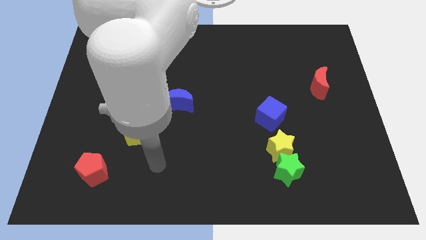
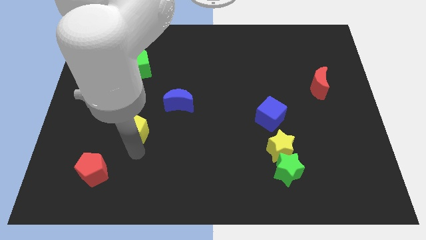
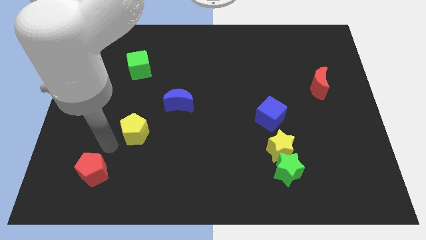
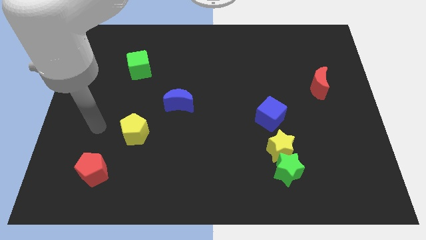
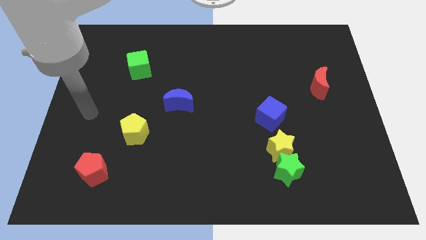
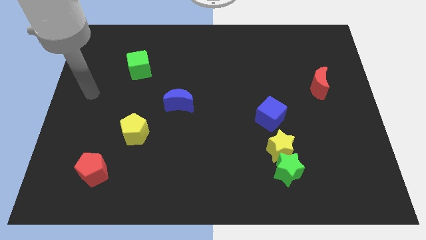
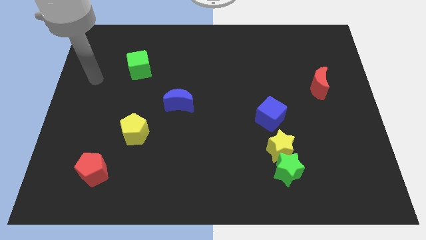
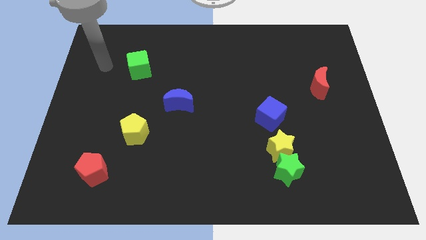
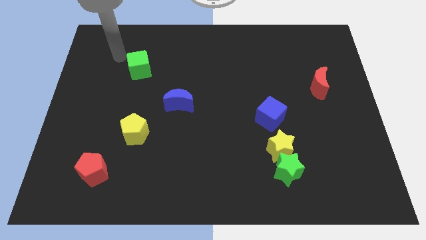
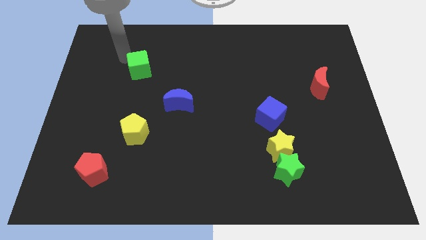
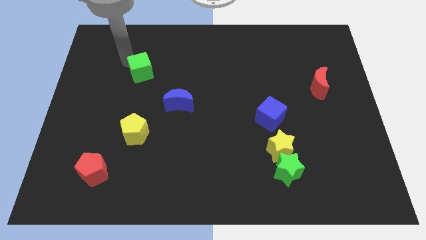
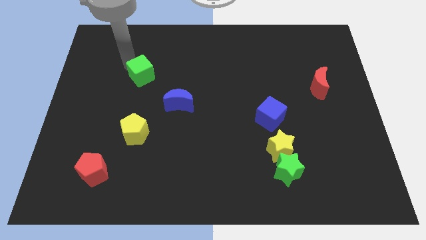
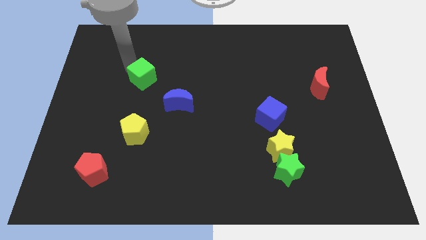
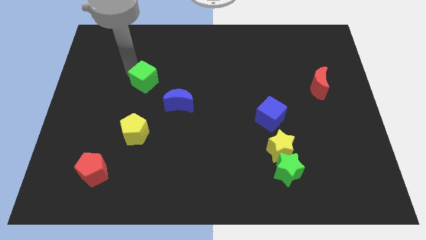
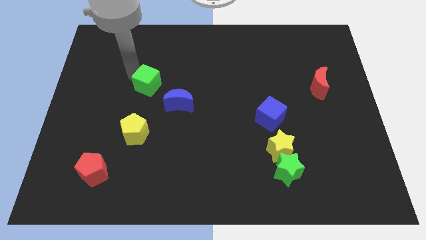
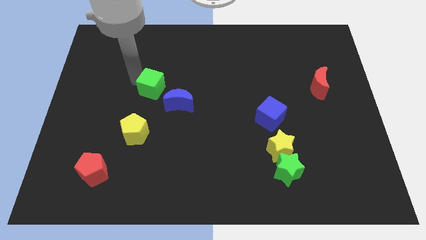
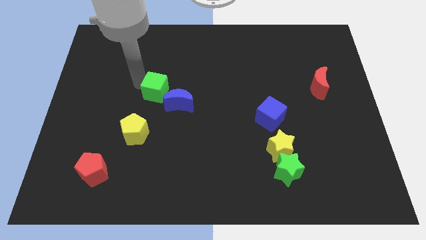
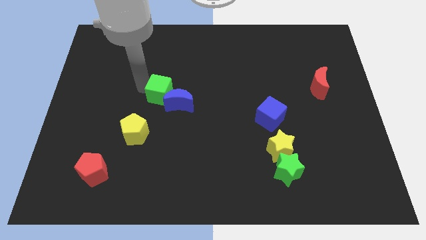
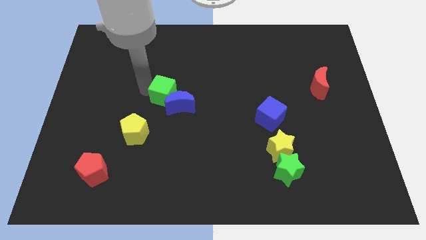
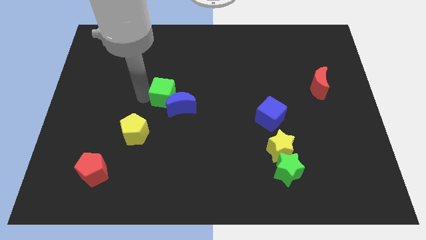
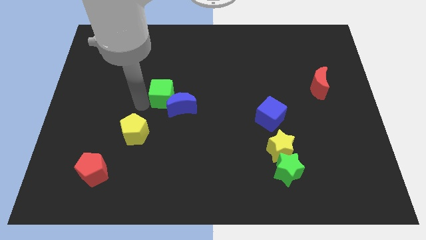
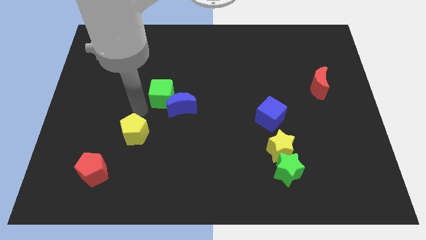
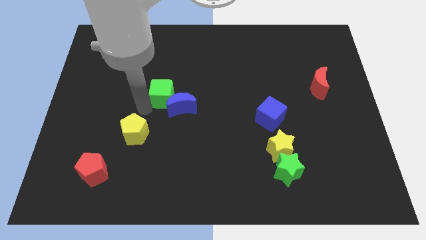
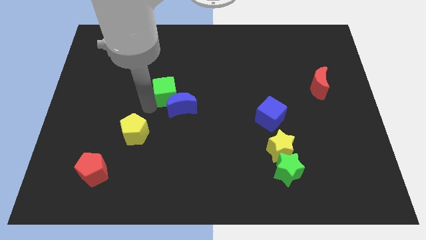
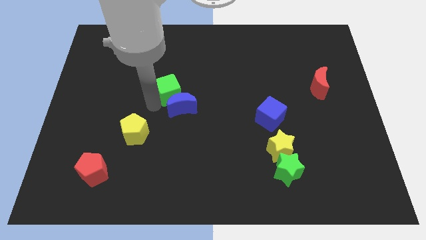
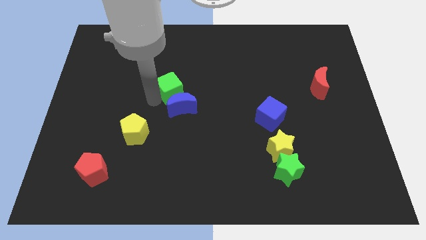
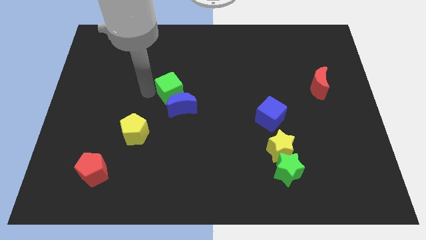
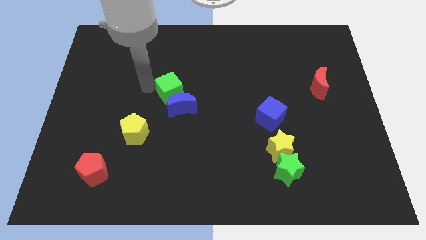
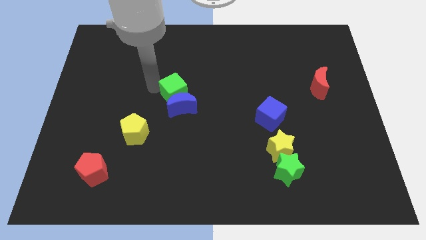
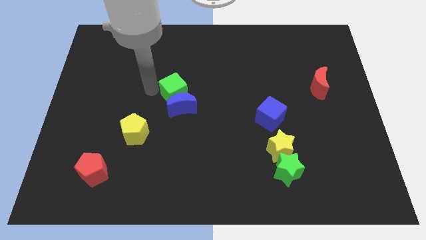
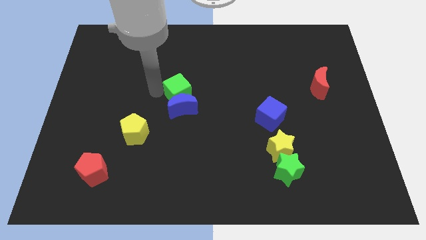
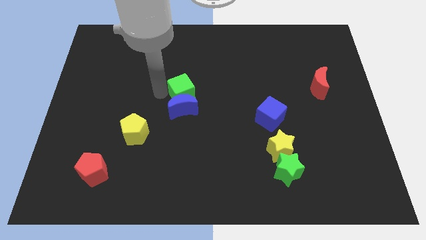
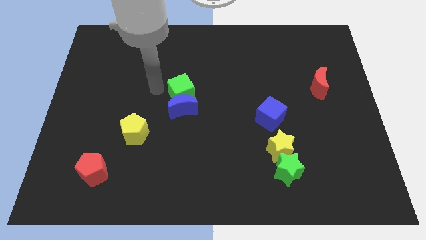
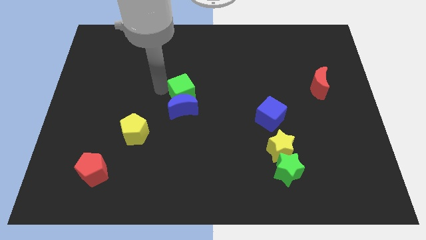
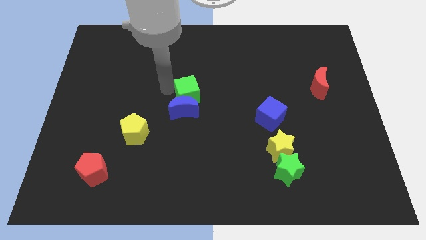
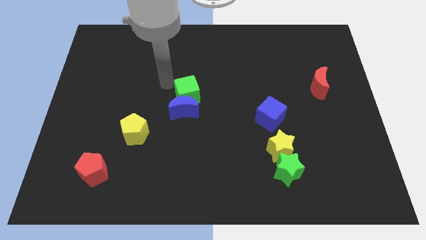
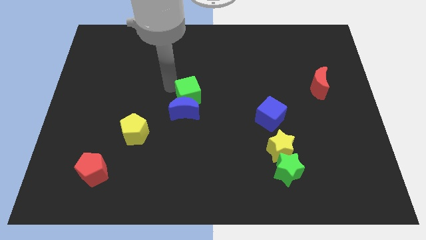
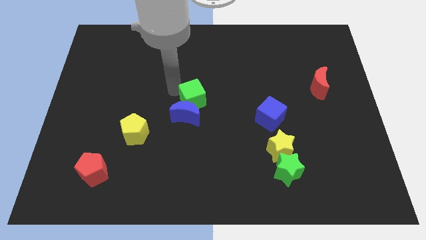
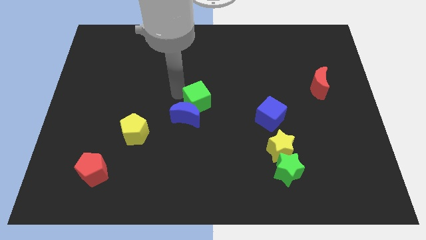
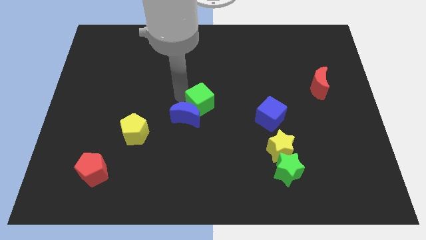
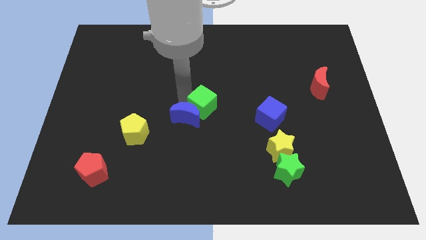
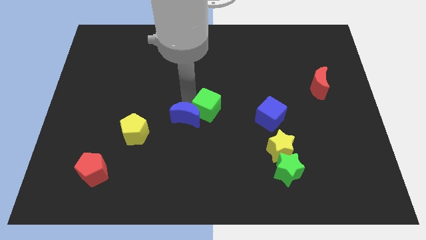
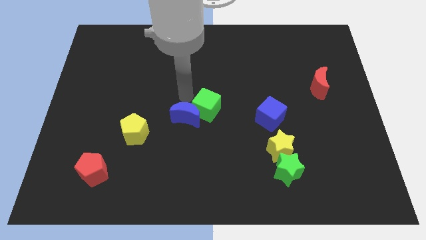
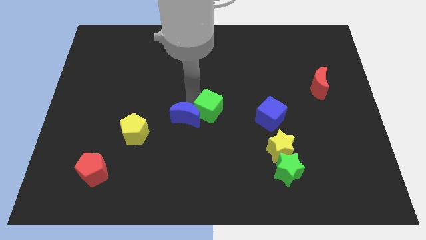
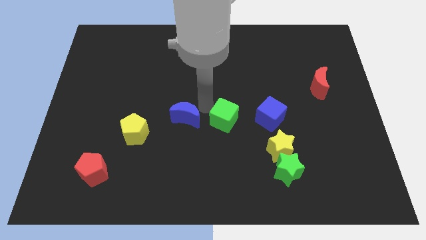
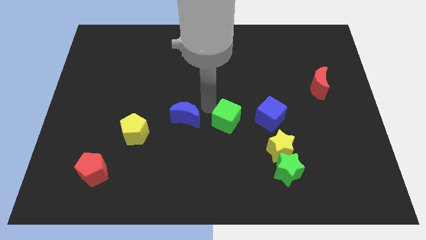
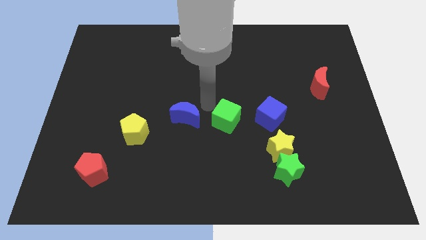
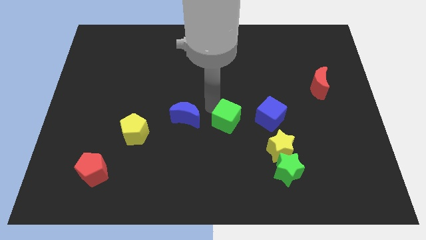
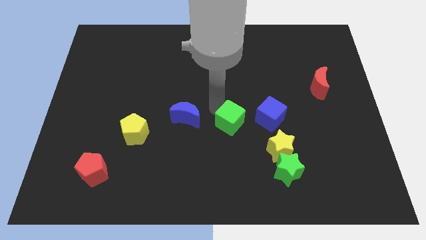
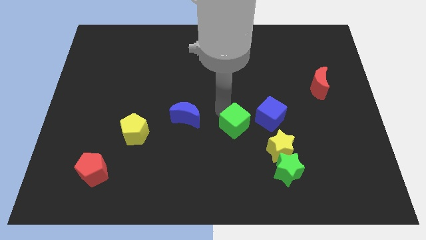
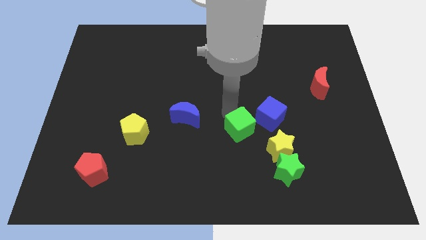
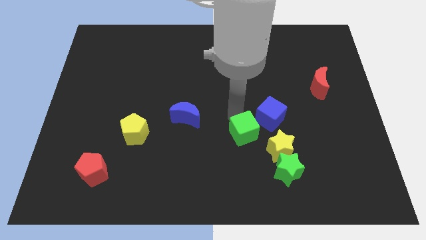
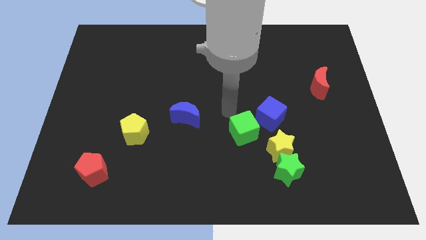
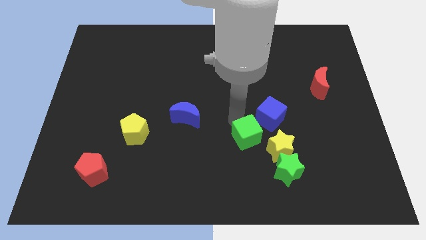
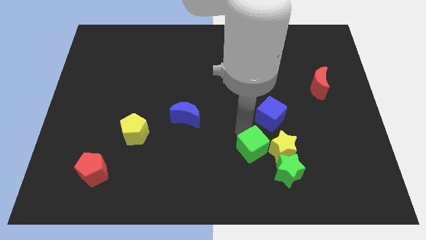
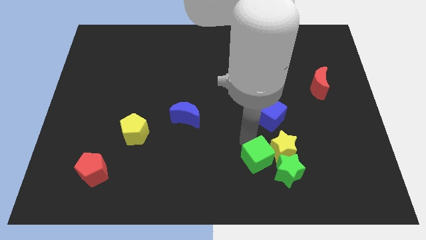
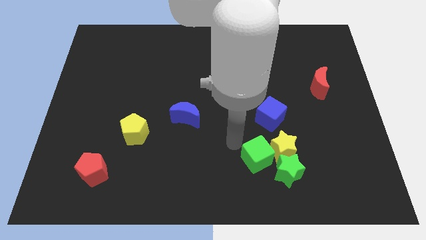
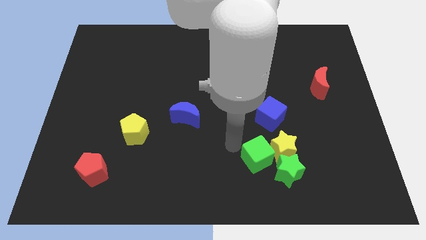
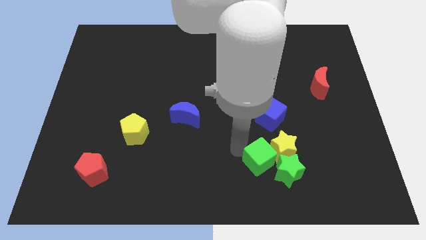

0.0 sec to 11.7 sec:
move the green cube towards the green star

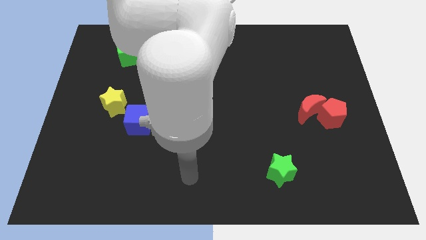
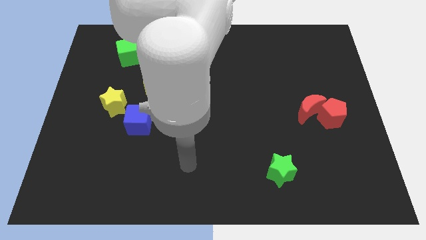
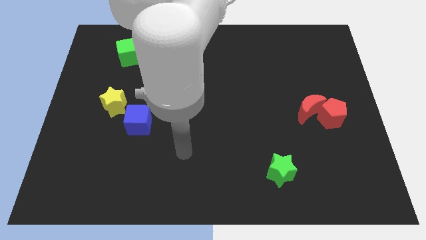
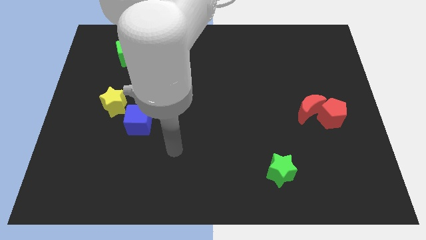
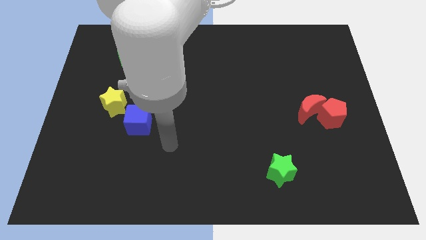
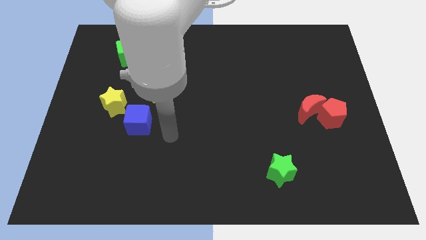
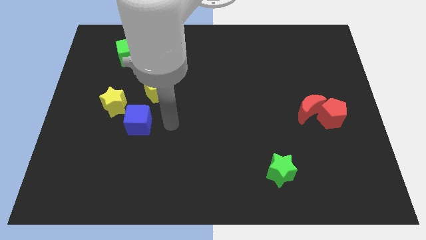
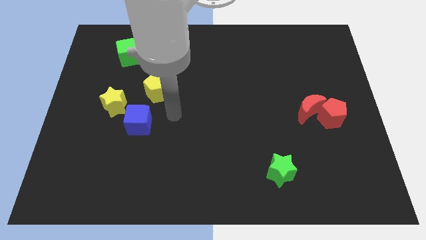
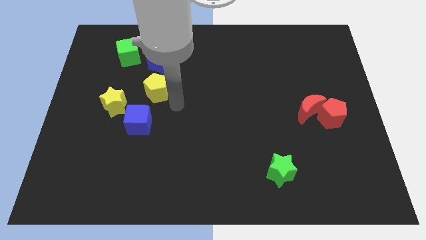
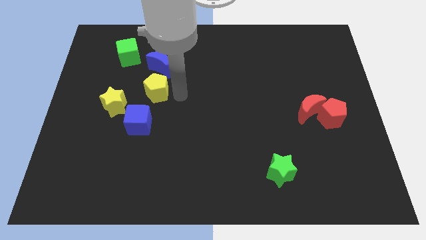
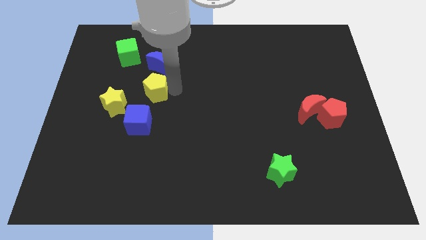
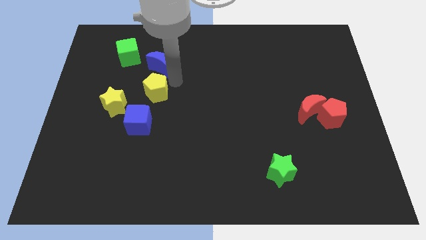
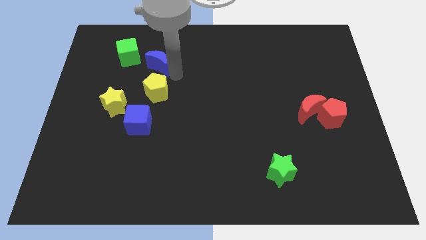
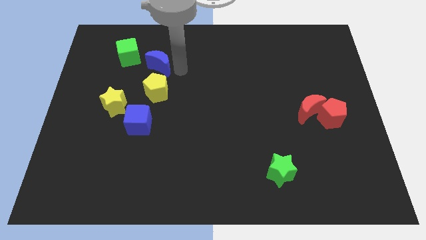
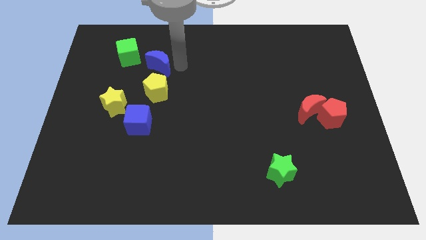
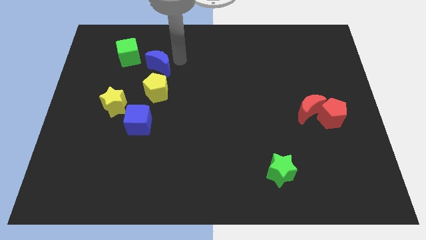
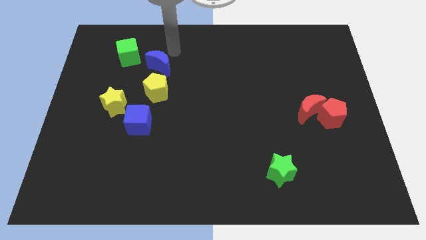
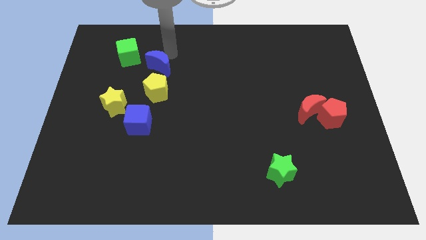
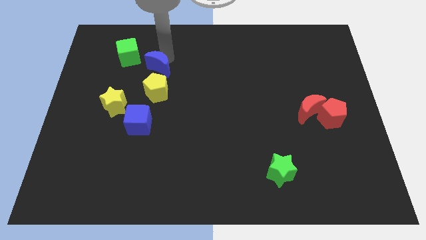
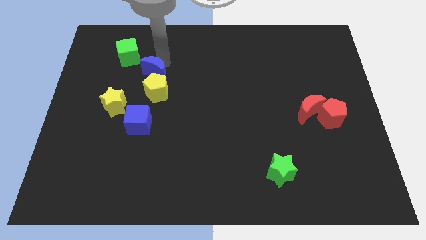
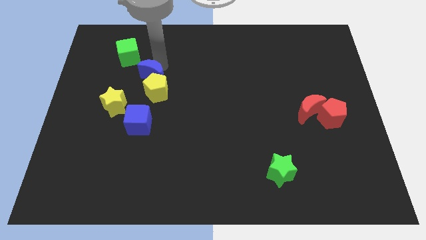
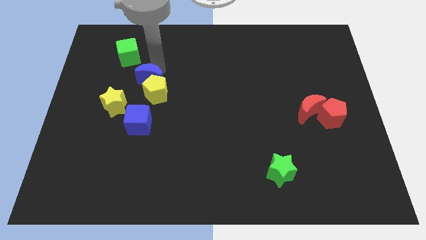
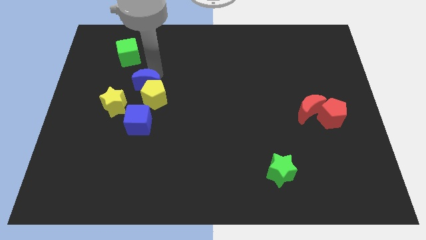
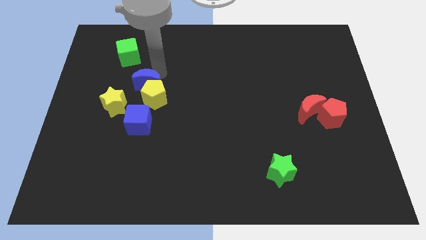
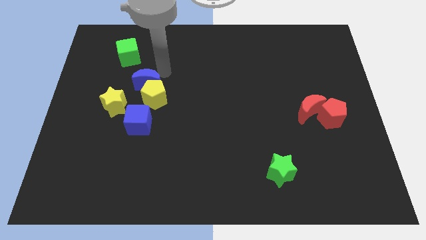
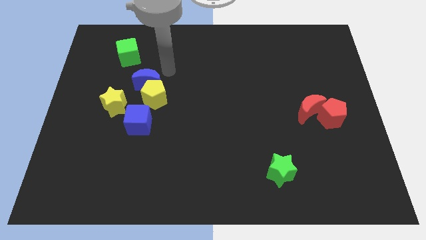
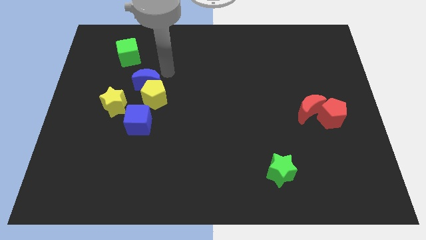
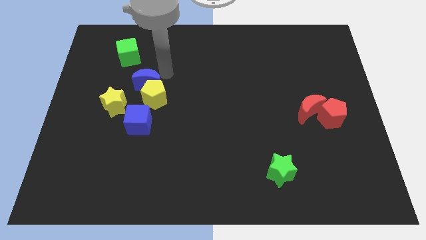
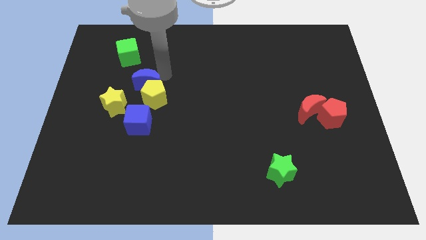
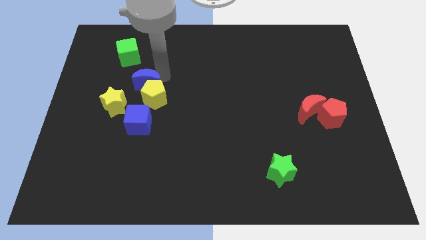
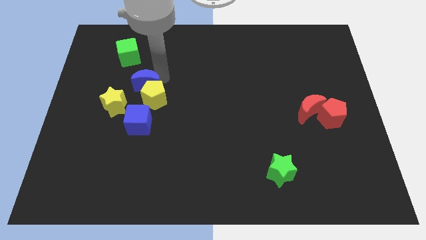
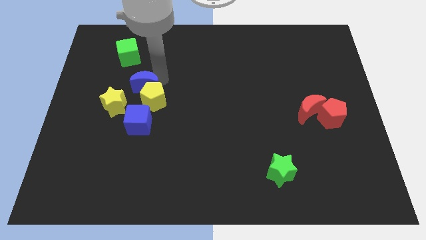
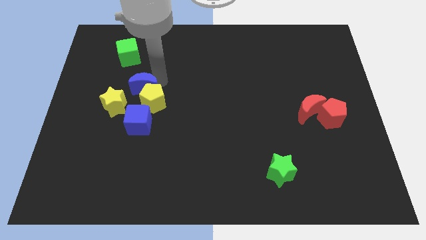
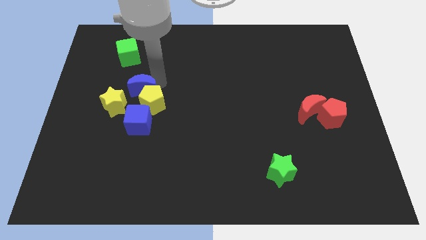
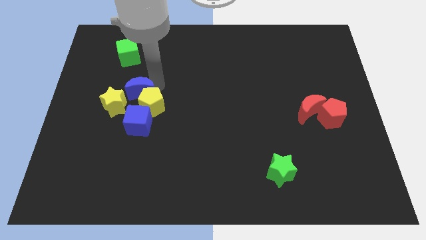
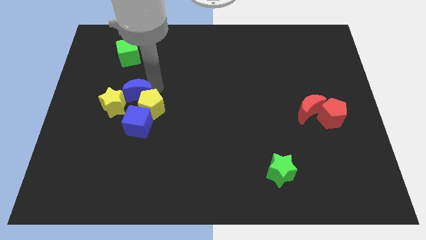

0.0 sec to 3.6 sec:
slide the blue moon towards the yellow star
